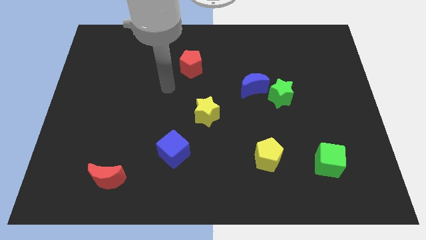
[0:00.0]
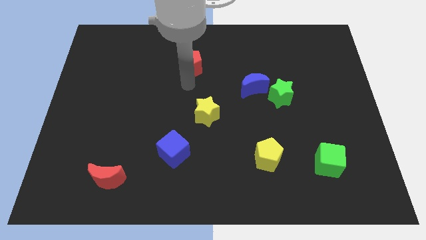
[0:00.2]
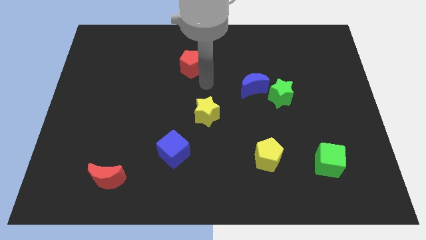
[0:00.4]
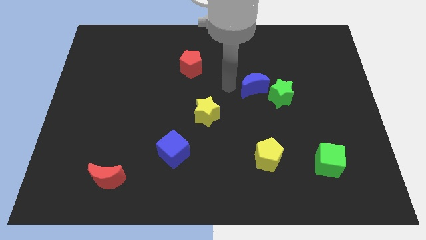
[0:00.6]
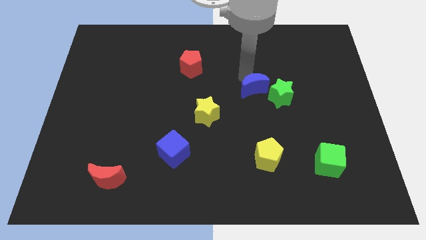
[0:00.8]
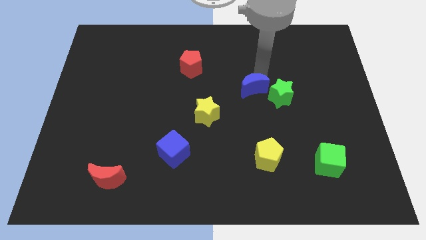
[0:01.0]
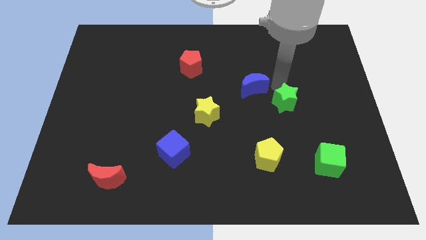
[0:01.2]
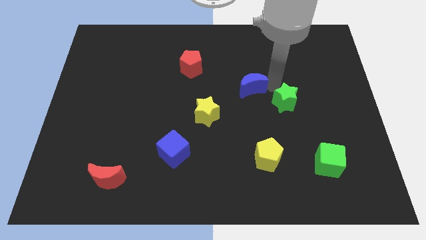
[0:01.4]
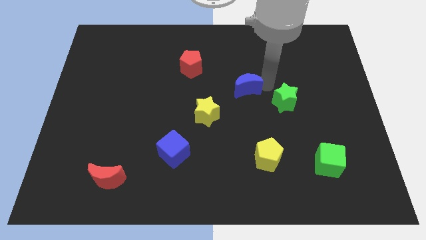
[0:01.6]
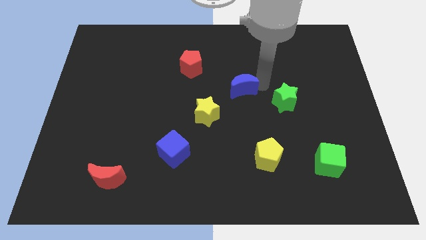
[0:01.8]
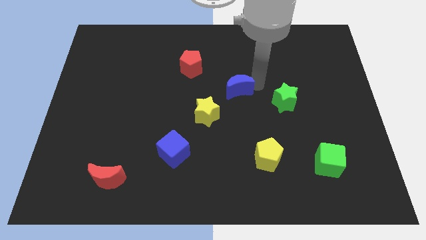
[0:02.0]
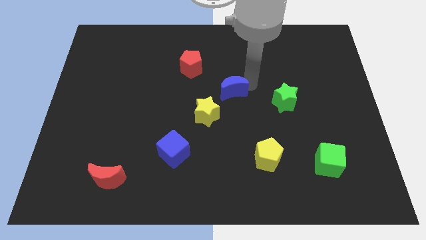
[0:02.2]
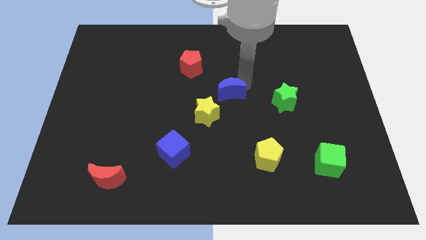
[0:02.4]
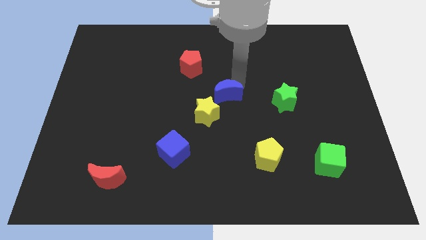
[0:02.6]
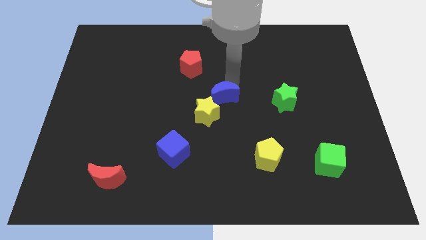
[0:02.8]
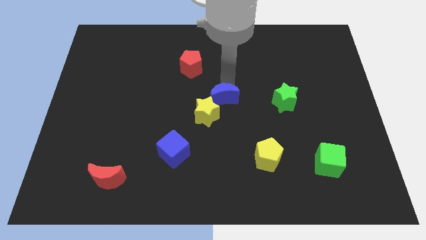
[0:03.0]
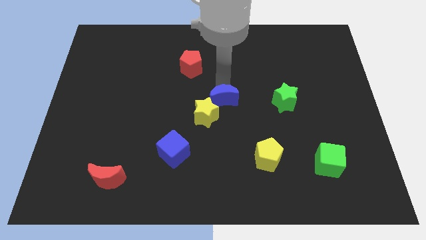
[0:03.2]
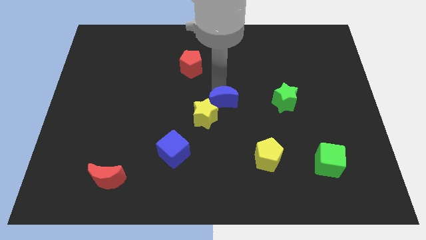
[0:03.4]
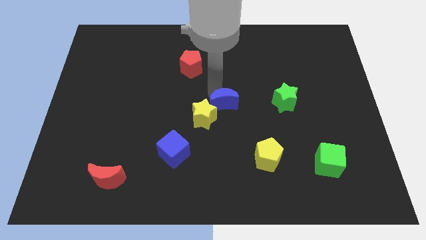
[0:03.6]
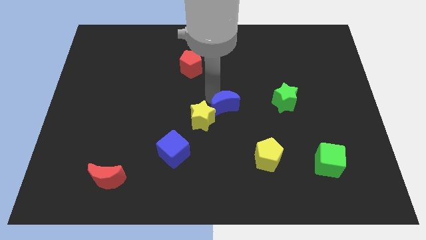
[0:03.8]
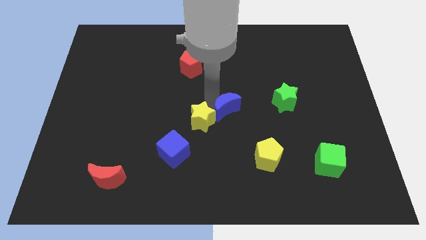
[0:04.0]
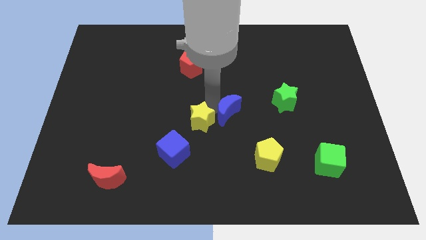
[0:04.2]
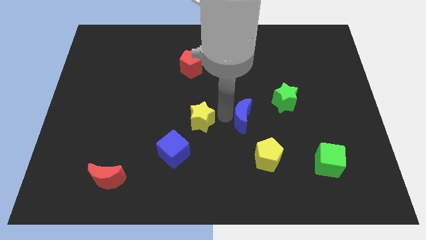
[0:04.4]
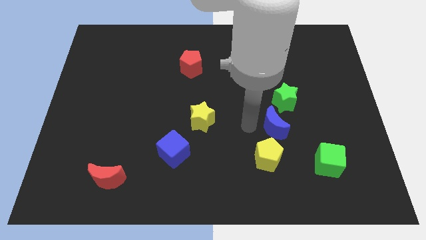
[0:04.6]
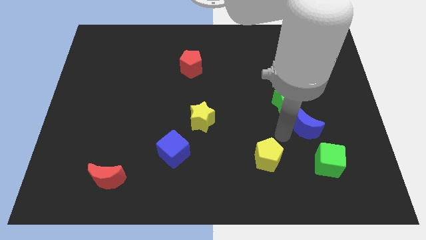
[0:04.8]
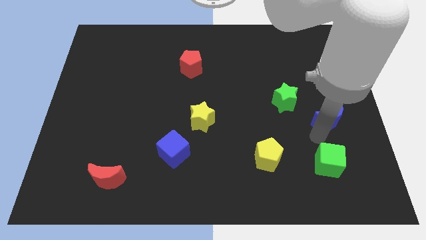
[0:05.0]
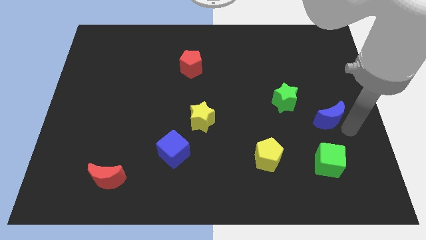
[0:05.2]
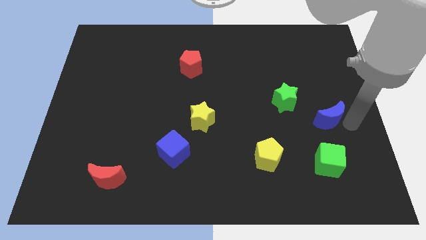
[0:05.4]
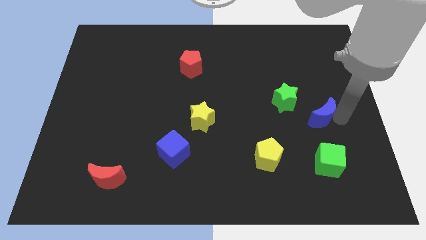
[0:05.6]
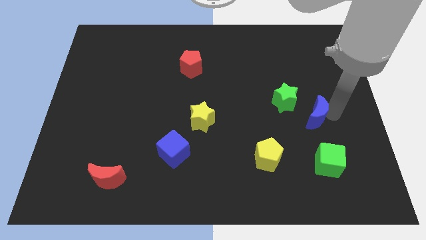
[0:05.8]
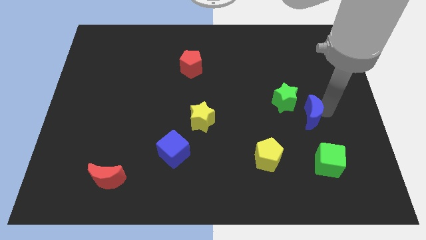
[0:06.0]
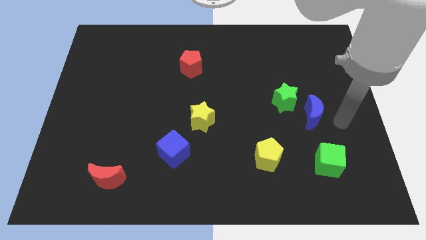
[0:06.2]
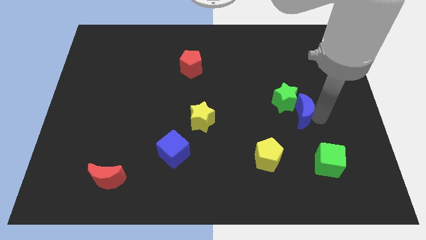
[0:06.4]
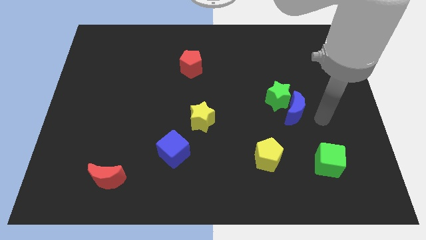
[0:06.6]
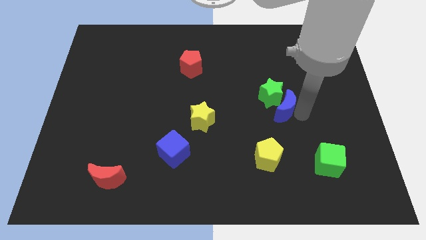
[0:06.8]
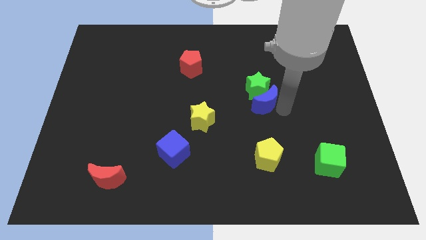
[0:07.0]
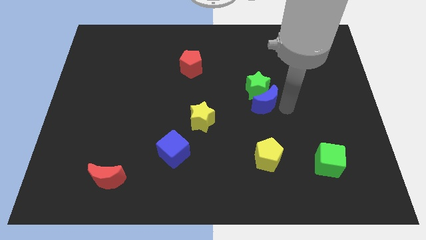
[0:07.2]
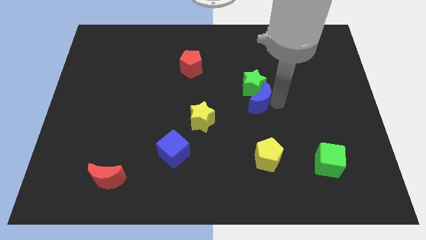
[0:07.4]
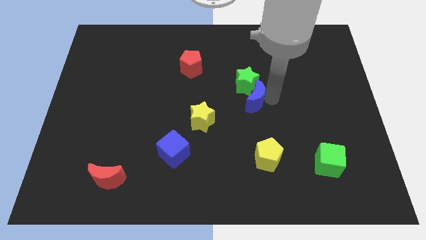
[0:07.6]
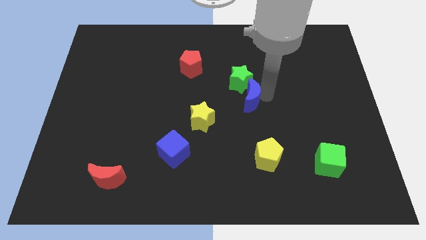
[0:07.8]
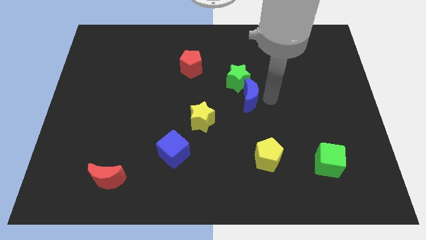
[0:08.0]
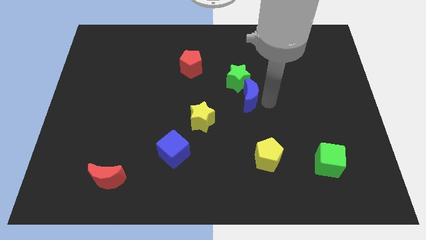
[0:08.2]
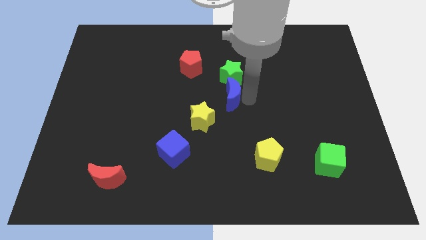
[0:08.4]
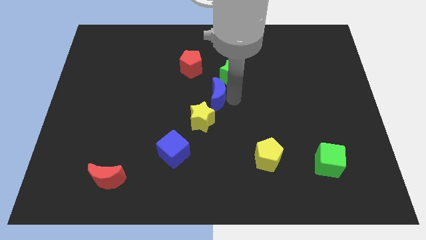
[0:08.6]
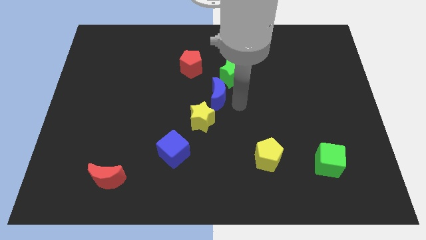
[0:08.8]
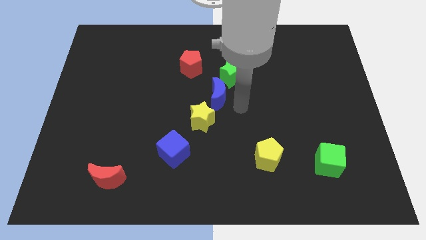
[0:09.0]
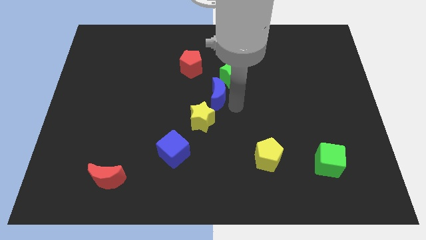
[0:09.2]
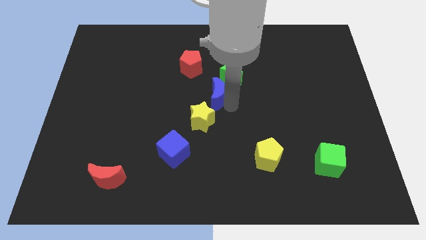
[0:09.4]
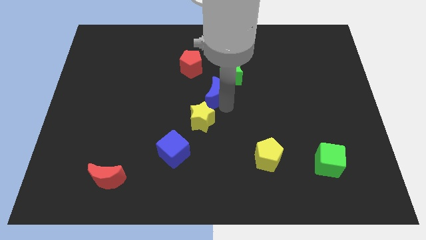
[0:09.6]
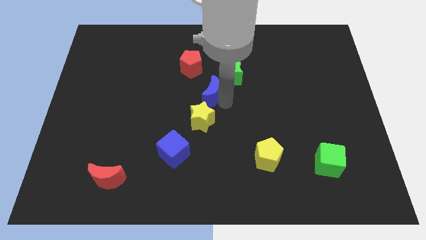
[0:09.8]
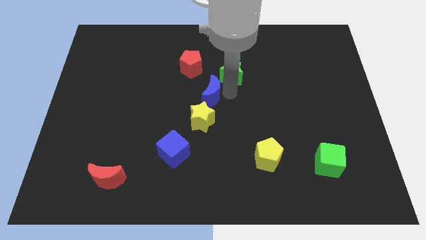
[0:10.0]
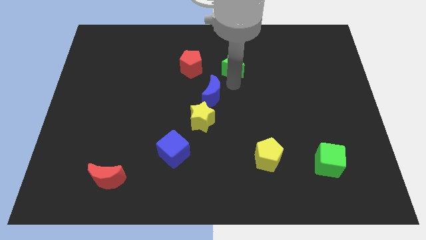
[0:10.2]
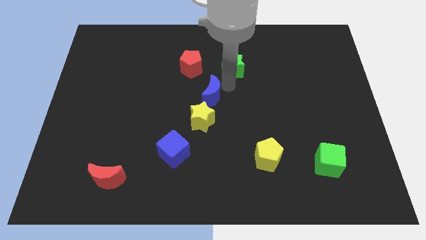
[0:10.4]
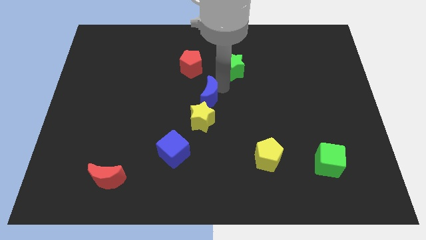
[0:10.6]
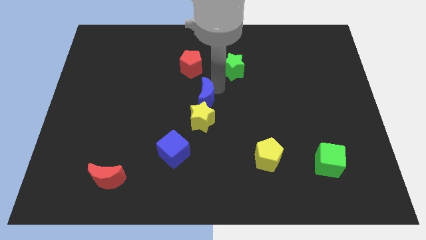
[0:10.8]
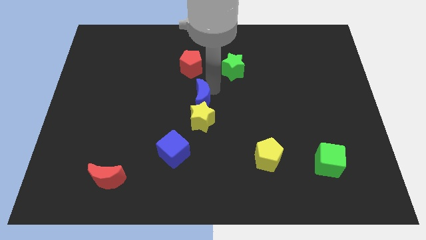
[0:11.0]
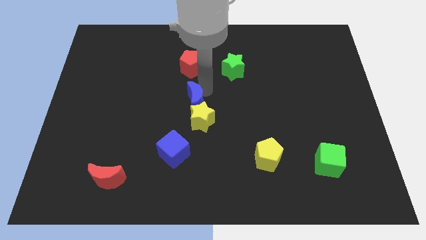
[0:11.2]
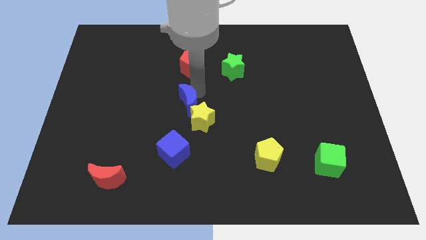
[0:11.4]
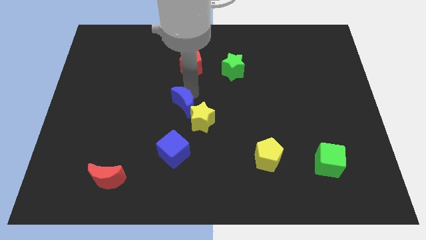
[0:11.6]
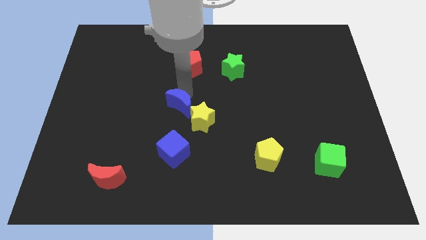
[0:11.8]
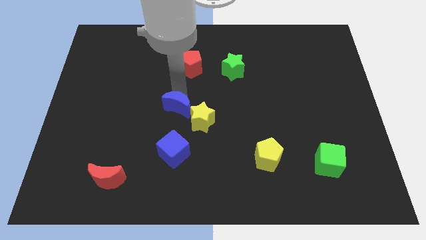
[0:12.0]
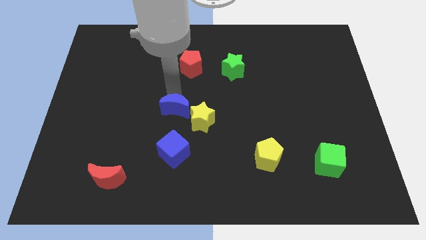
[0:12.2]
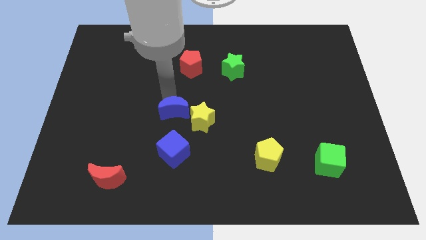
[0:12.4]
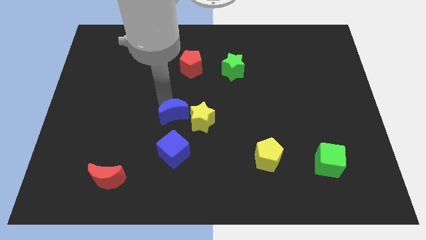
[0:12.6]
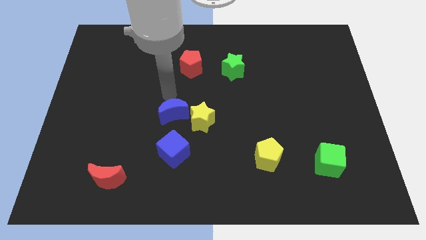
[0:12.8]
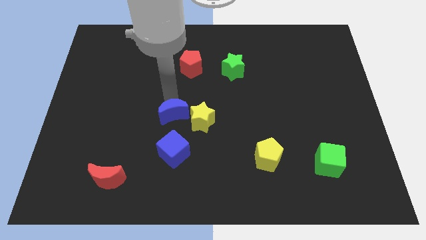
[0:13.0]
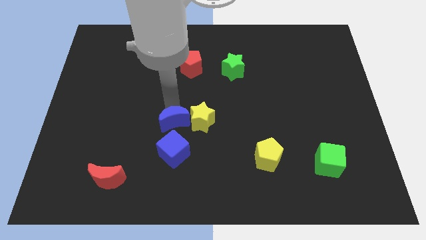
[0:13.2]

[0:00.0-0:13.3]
push the blue moon diagonally down and to the left of the yellow star
